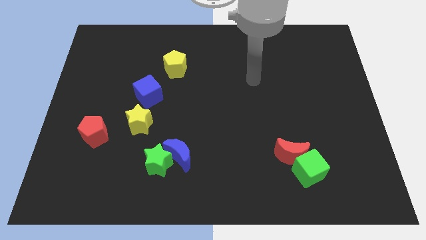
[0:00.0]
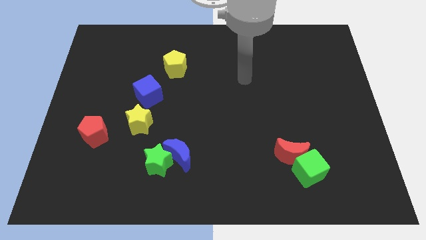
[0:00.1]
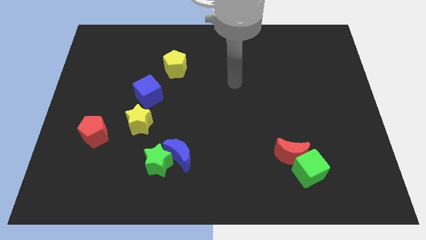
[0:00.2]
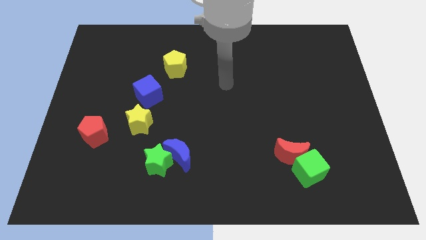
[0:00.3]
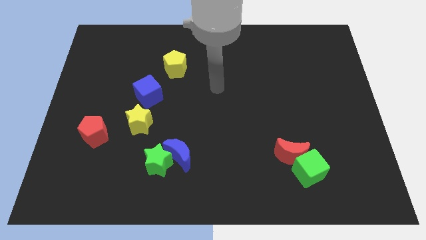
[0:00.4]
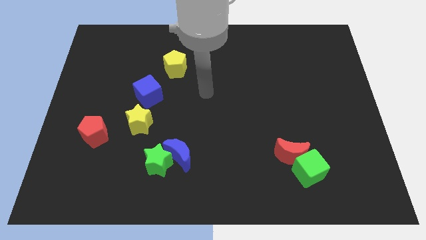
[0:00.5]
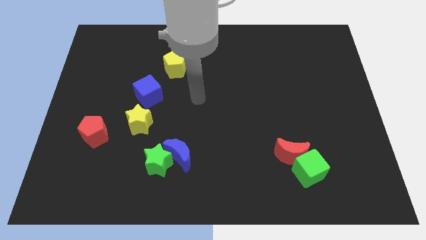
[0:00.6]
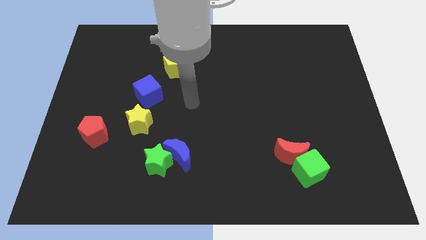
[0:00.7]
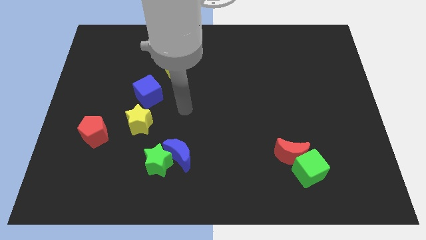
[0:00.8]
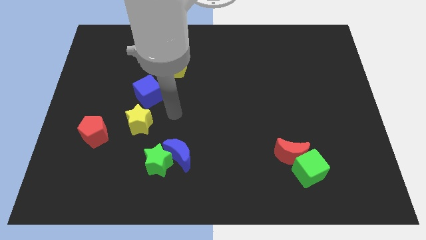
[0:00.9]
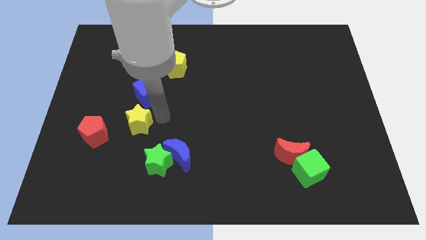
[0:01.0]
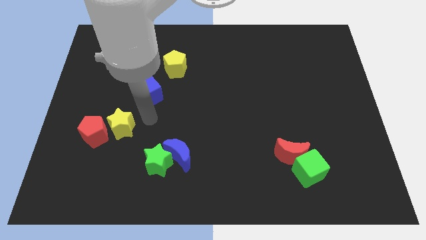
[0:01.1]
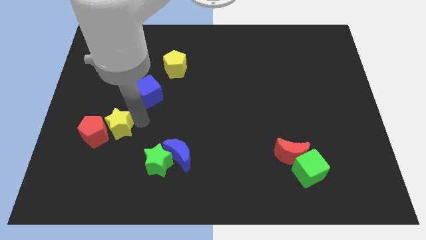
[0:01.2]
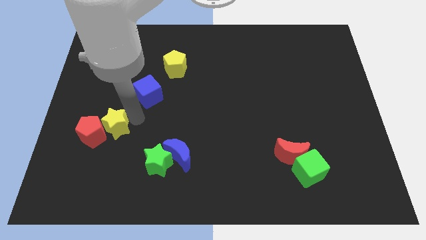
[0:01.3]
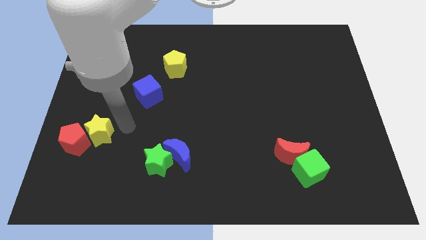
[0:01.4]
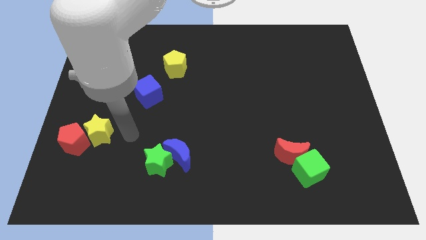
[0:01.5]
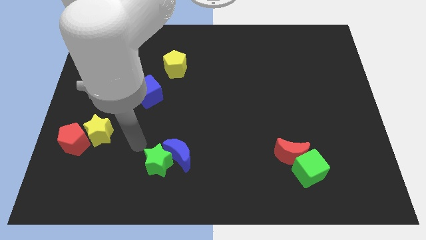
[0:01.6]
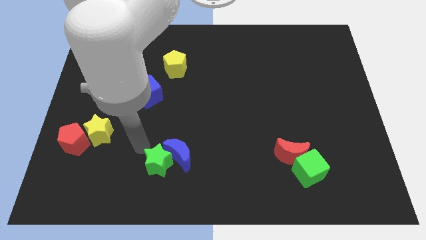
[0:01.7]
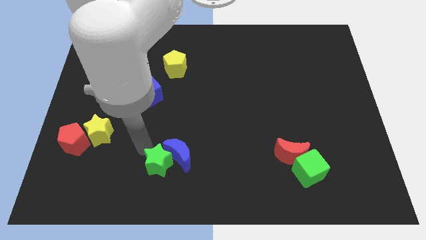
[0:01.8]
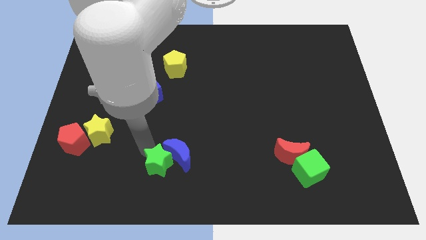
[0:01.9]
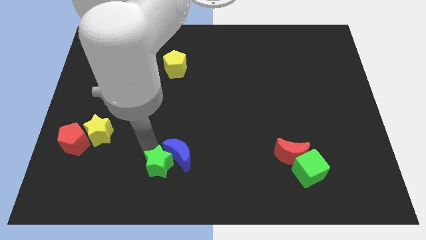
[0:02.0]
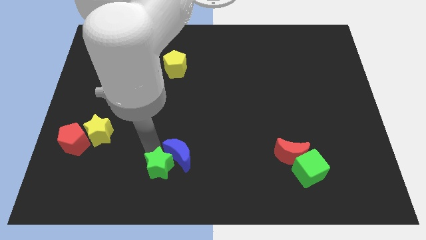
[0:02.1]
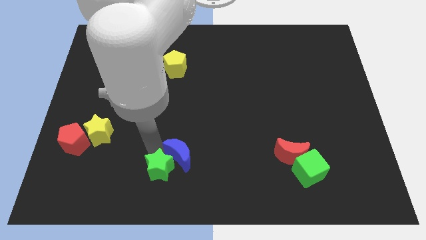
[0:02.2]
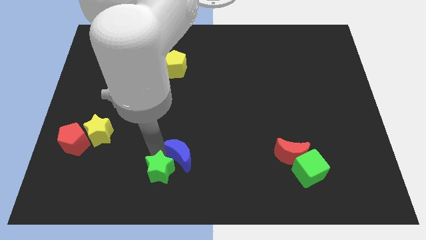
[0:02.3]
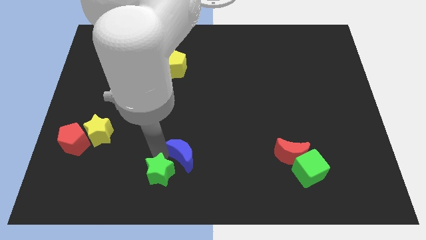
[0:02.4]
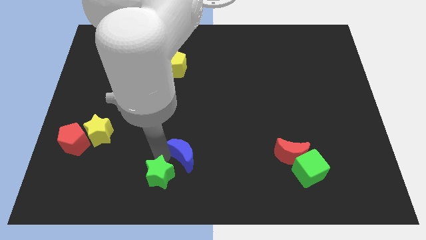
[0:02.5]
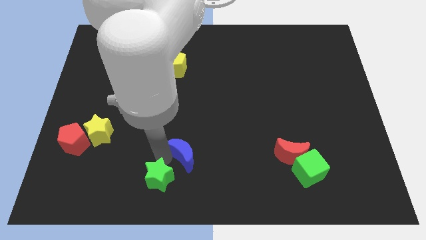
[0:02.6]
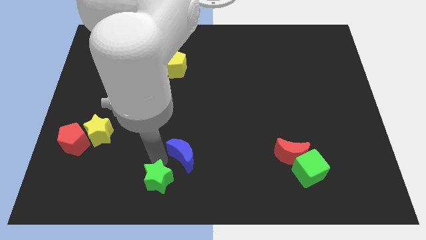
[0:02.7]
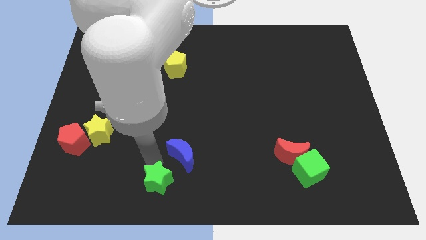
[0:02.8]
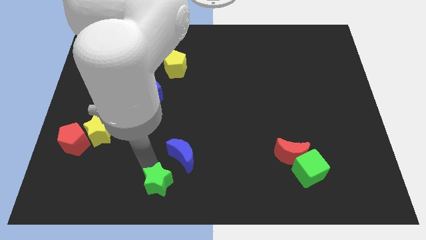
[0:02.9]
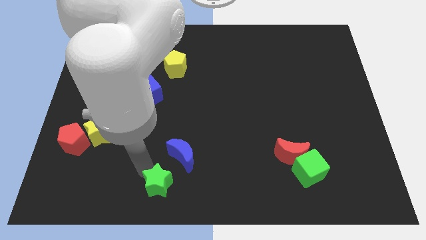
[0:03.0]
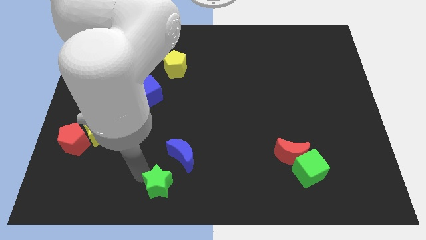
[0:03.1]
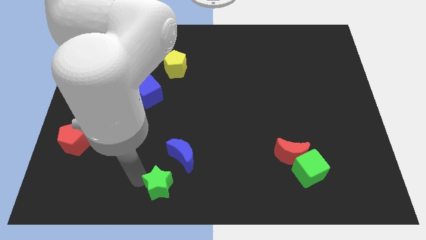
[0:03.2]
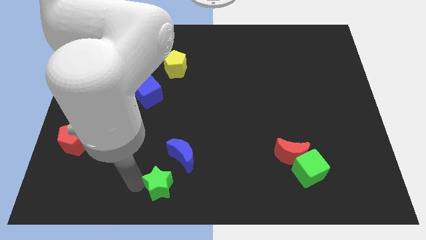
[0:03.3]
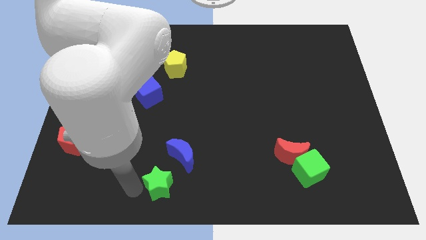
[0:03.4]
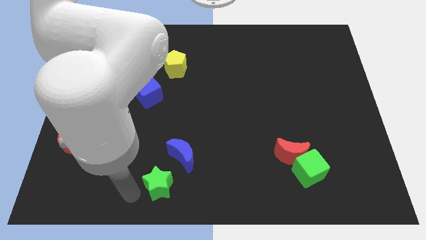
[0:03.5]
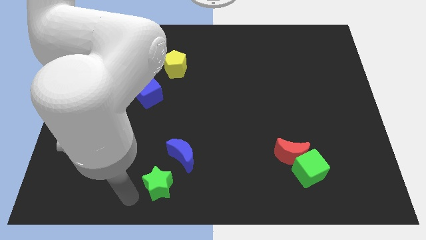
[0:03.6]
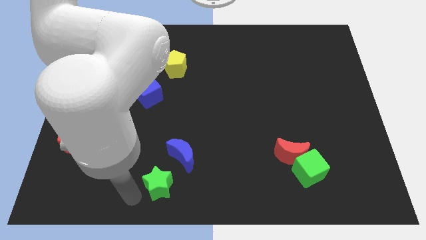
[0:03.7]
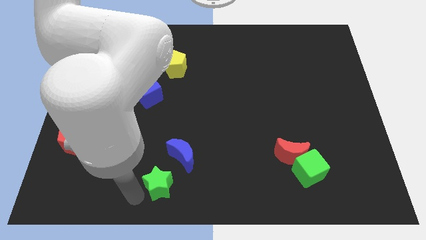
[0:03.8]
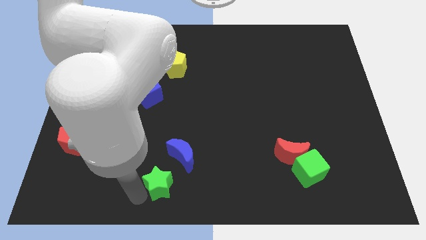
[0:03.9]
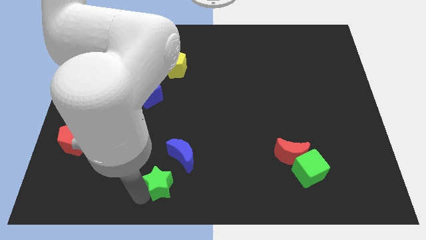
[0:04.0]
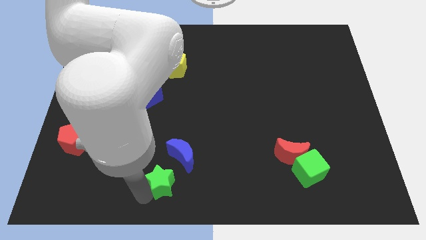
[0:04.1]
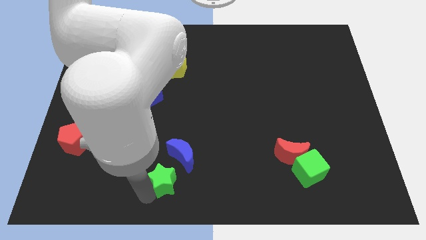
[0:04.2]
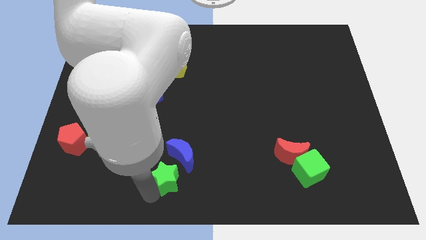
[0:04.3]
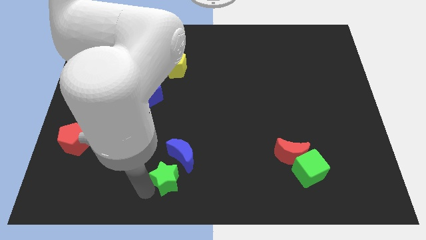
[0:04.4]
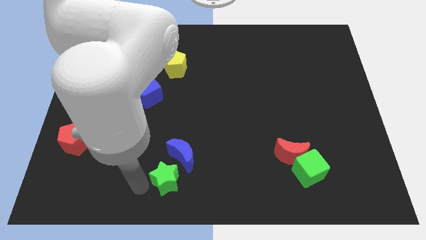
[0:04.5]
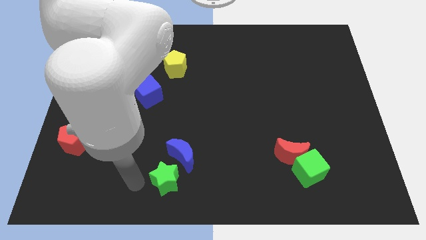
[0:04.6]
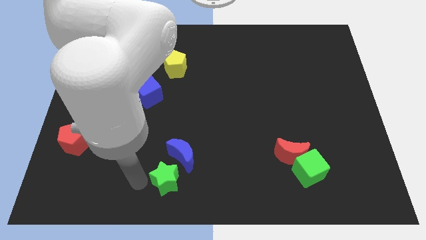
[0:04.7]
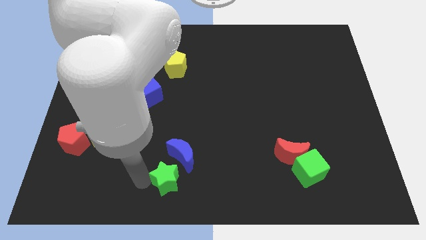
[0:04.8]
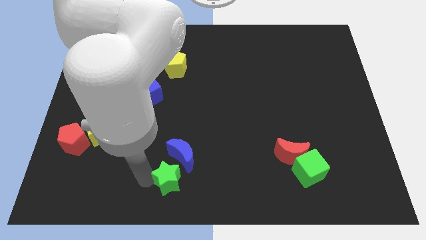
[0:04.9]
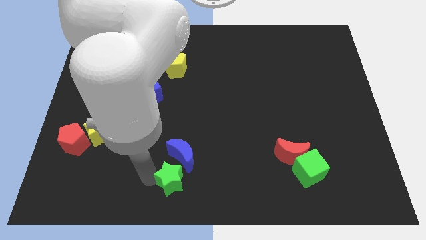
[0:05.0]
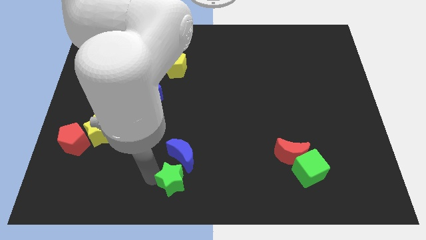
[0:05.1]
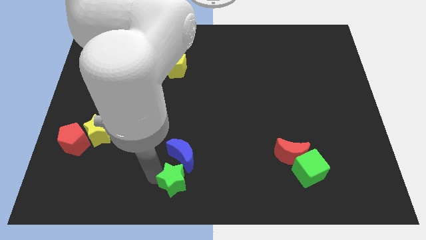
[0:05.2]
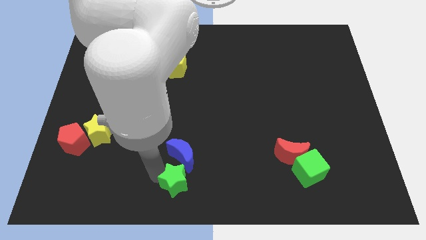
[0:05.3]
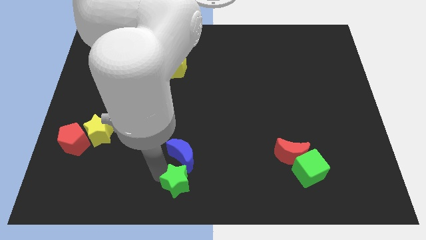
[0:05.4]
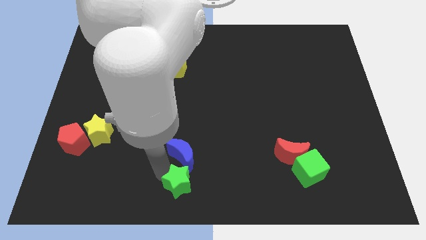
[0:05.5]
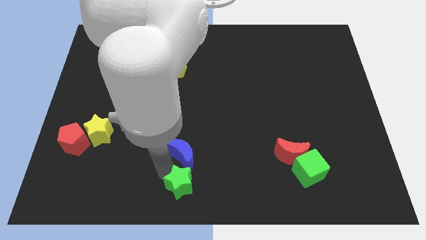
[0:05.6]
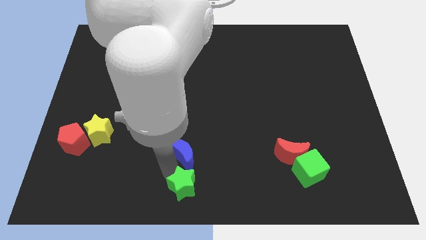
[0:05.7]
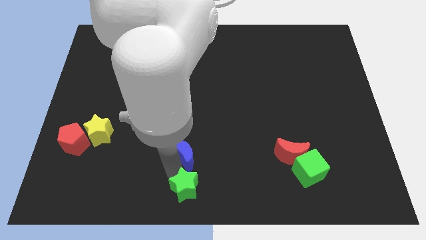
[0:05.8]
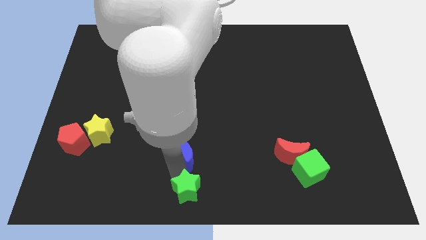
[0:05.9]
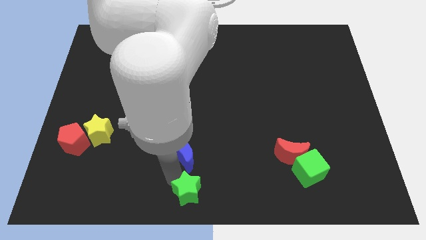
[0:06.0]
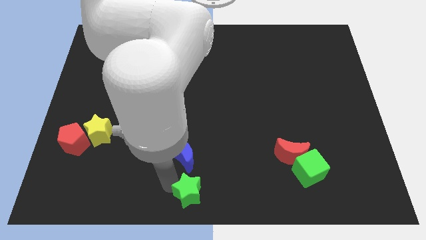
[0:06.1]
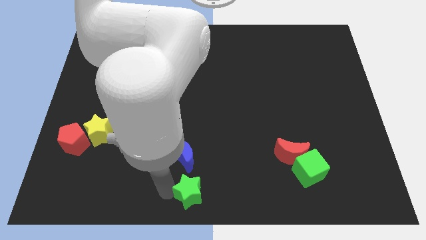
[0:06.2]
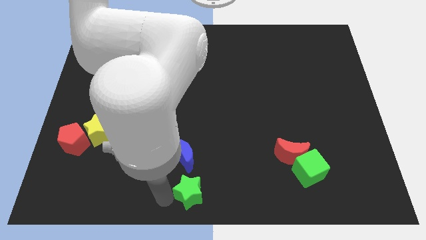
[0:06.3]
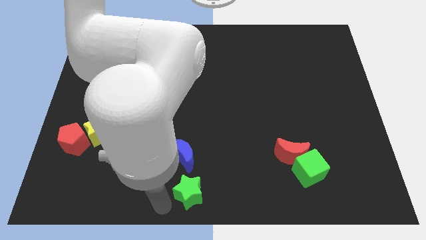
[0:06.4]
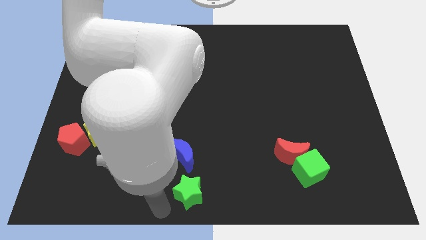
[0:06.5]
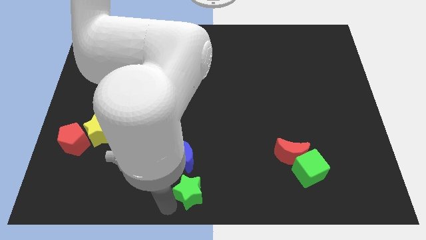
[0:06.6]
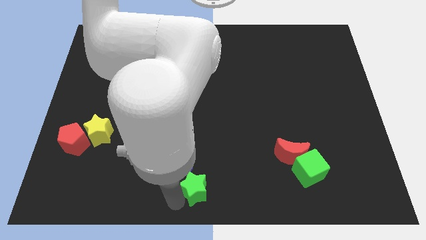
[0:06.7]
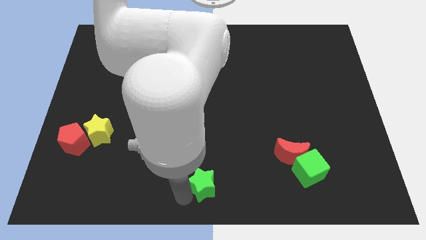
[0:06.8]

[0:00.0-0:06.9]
slide the green star a little bit right

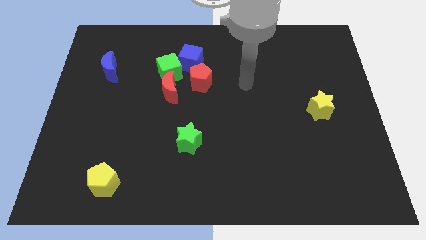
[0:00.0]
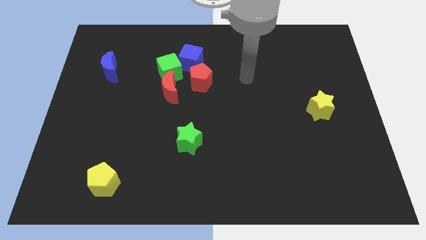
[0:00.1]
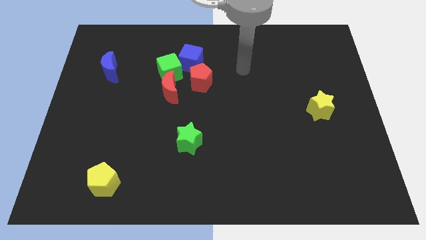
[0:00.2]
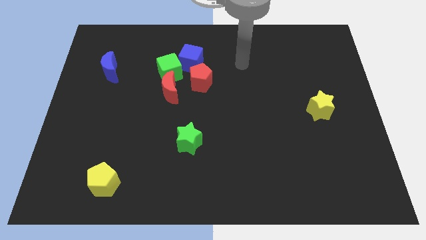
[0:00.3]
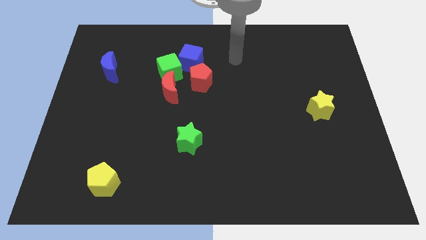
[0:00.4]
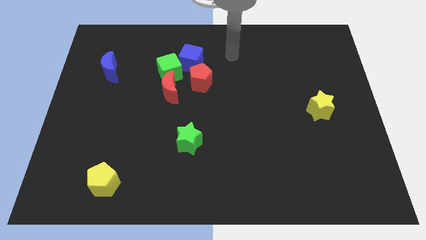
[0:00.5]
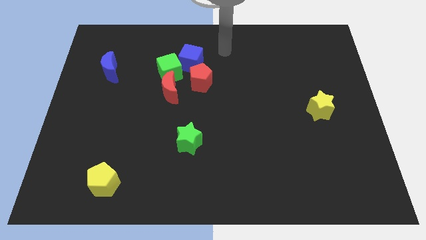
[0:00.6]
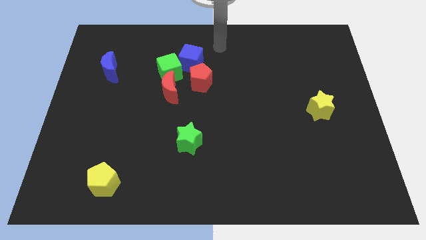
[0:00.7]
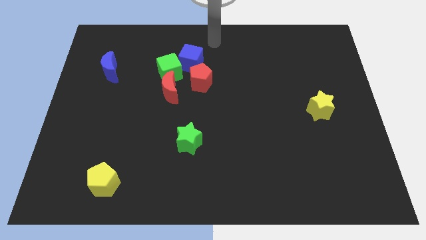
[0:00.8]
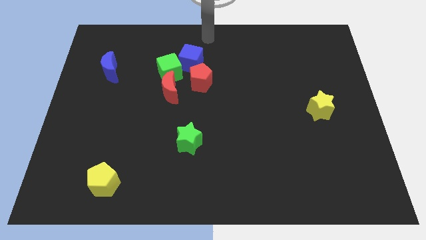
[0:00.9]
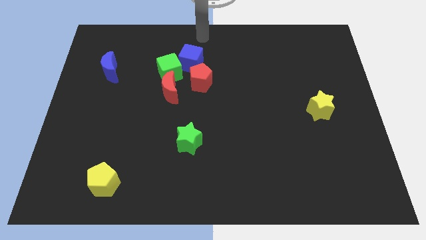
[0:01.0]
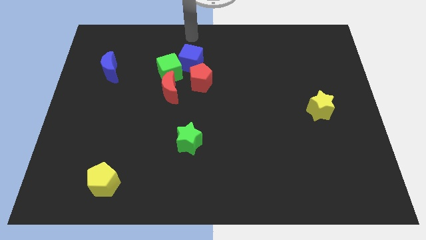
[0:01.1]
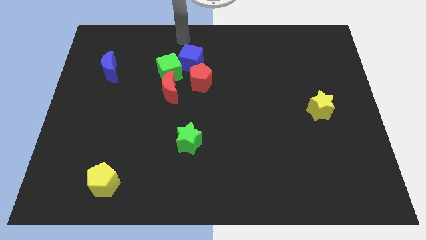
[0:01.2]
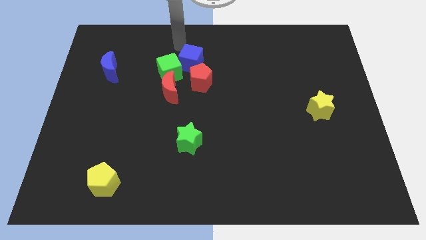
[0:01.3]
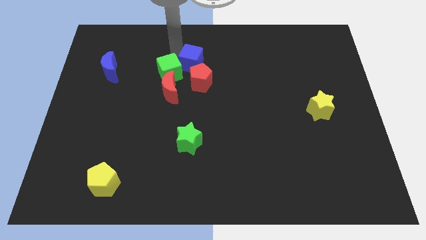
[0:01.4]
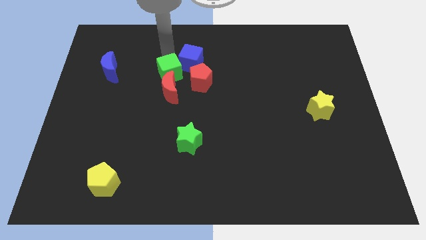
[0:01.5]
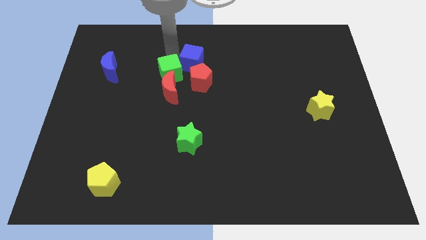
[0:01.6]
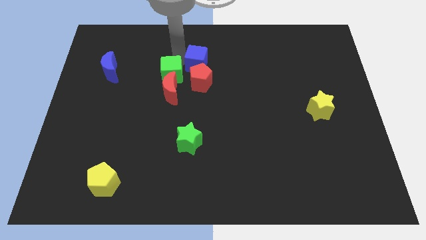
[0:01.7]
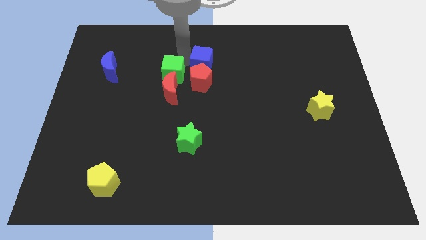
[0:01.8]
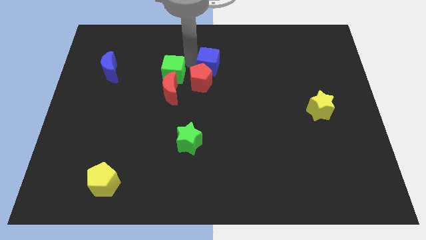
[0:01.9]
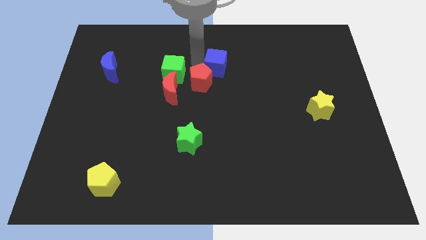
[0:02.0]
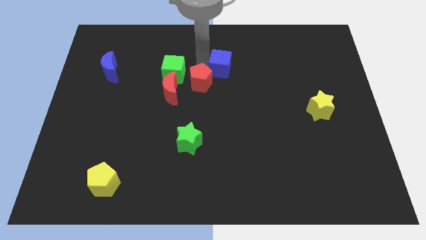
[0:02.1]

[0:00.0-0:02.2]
push the blue cube a little right
